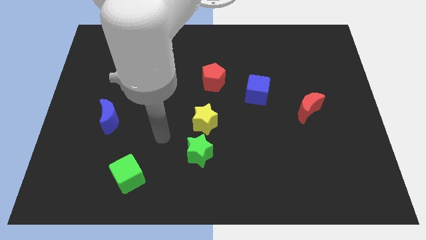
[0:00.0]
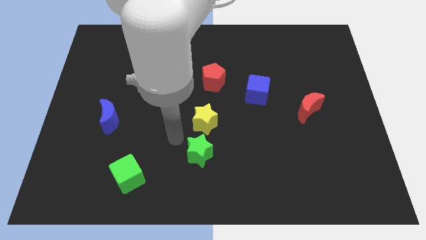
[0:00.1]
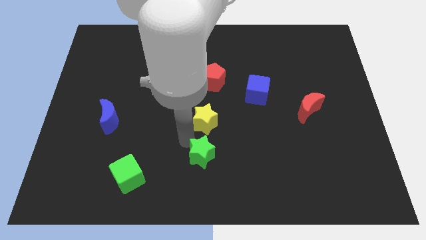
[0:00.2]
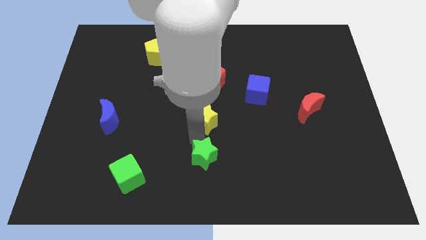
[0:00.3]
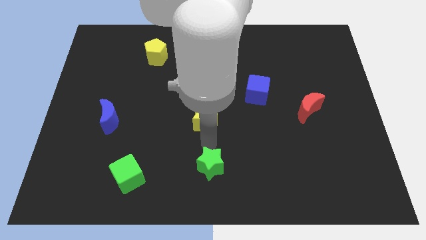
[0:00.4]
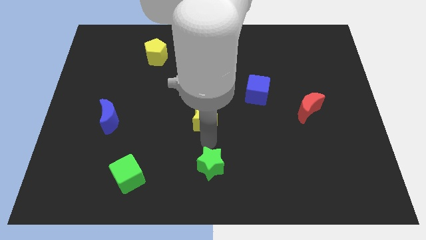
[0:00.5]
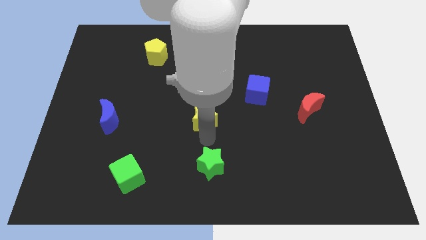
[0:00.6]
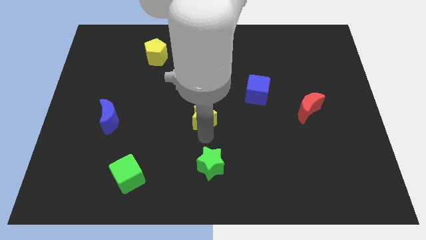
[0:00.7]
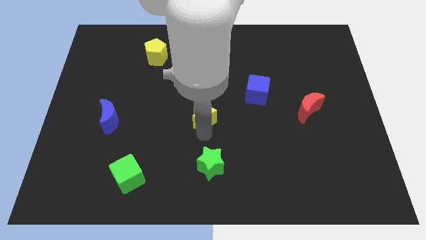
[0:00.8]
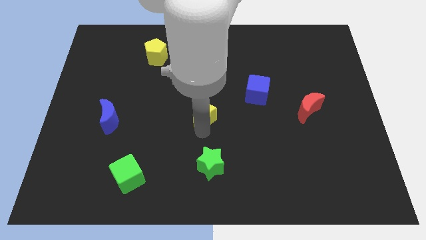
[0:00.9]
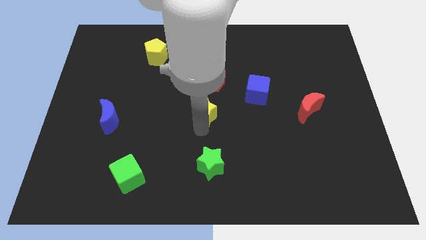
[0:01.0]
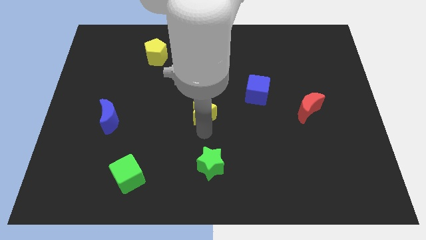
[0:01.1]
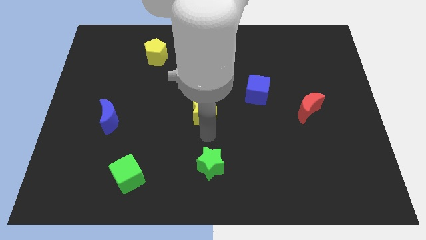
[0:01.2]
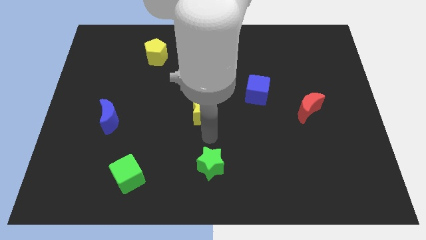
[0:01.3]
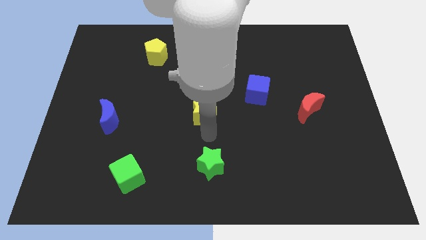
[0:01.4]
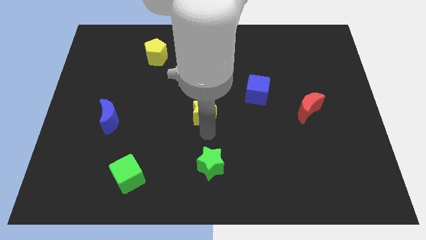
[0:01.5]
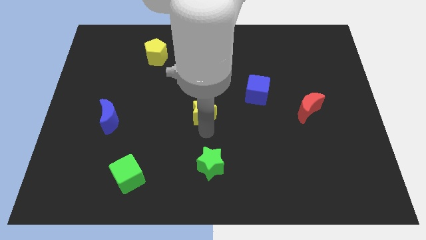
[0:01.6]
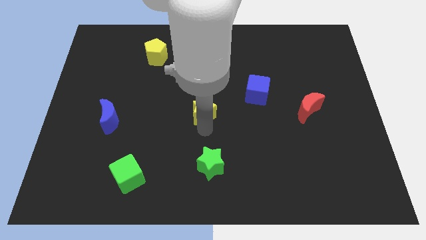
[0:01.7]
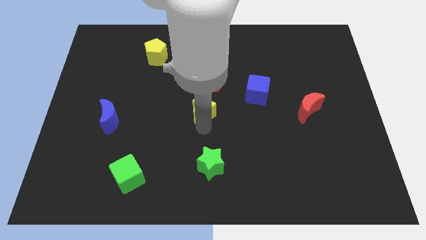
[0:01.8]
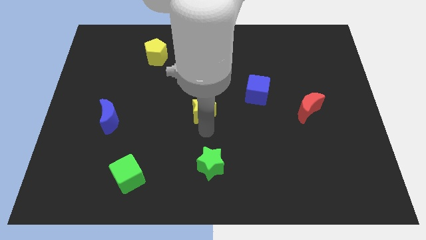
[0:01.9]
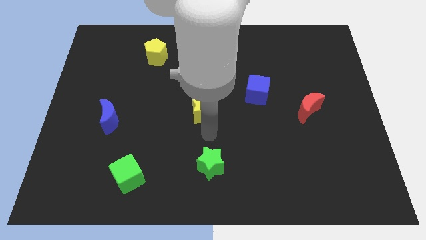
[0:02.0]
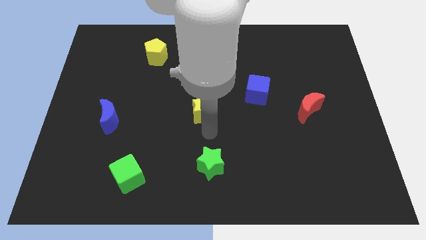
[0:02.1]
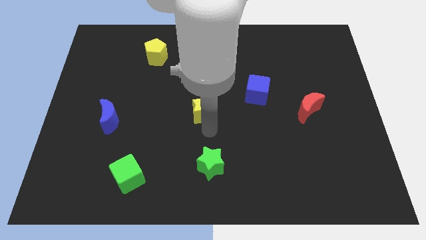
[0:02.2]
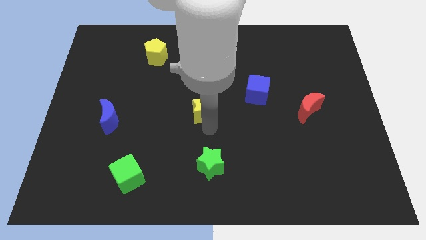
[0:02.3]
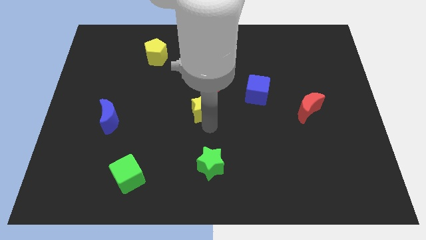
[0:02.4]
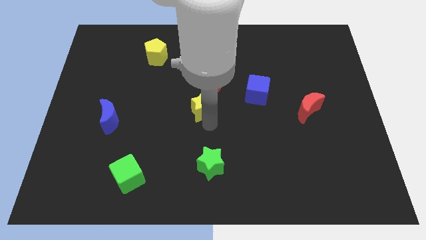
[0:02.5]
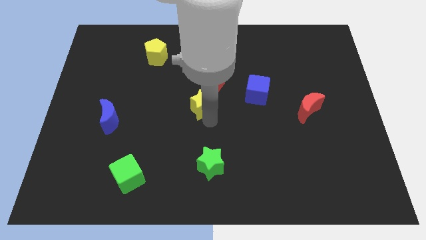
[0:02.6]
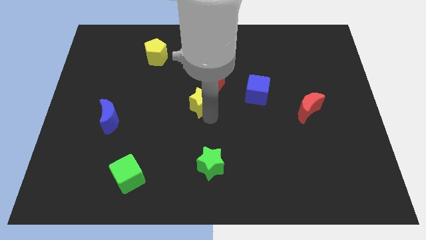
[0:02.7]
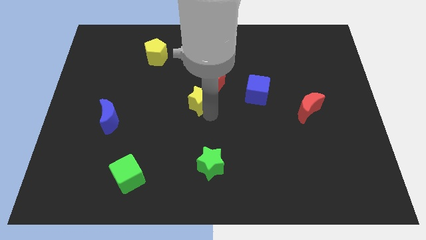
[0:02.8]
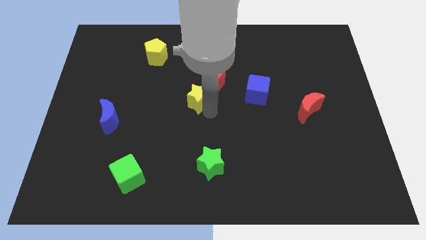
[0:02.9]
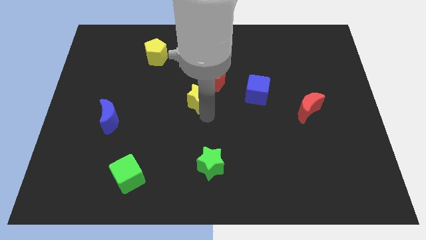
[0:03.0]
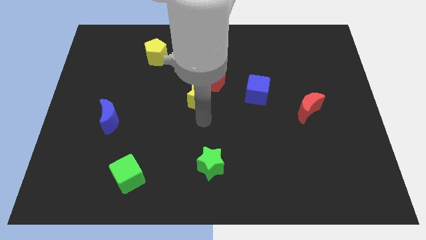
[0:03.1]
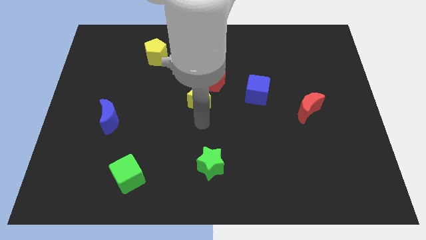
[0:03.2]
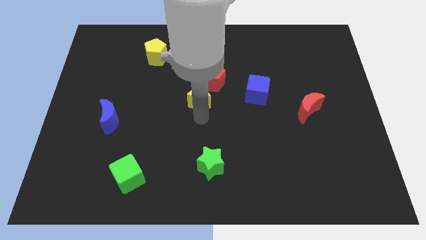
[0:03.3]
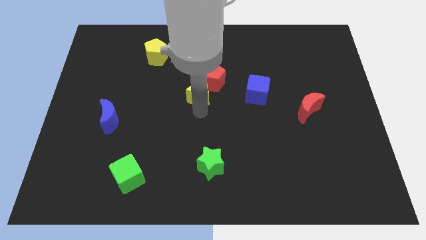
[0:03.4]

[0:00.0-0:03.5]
slightly push the yellow star upwards

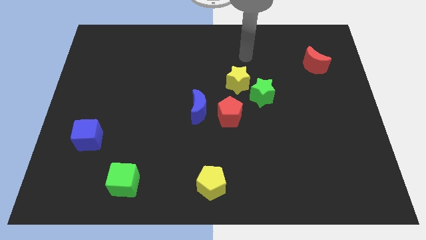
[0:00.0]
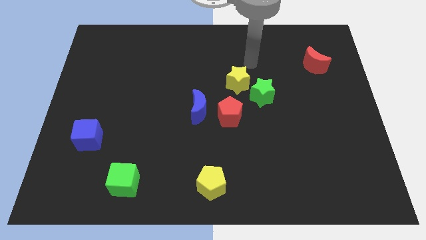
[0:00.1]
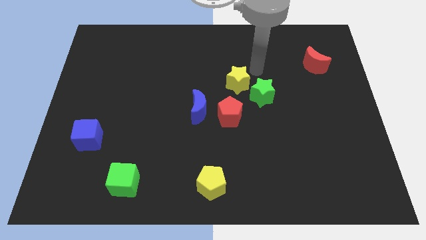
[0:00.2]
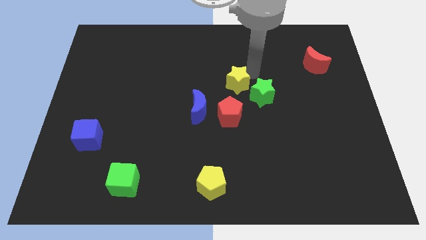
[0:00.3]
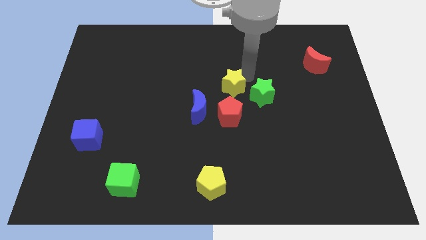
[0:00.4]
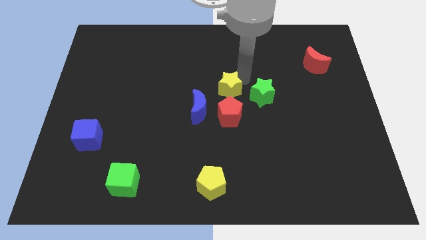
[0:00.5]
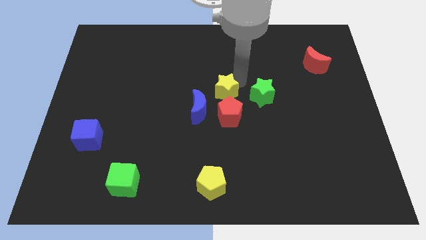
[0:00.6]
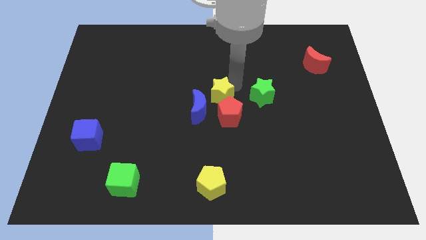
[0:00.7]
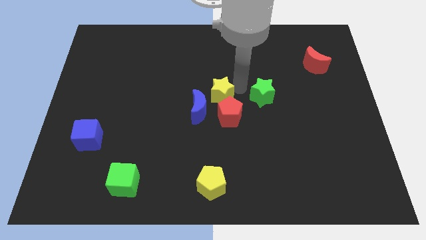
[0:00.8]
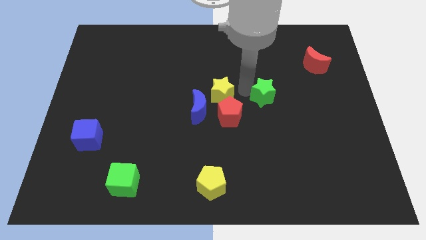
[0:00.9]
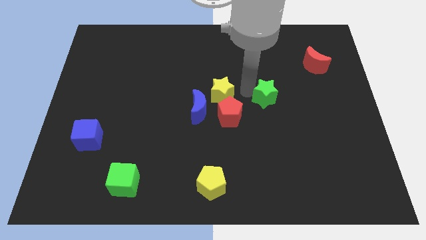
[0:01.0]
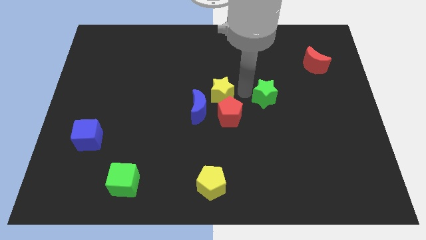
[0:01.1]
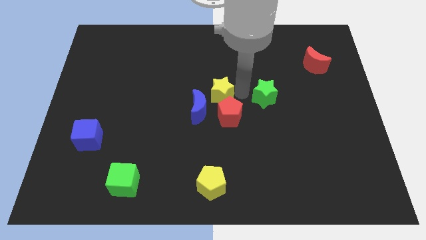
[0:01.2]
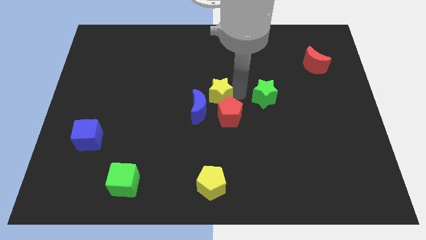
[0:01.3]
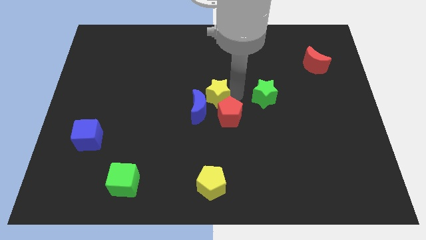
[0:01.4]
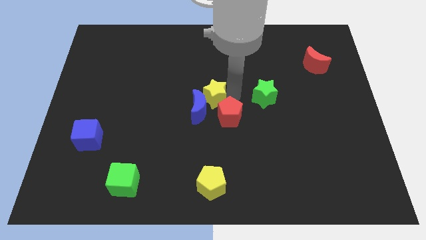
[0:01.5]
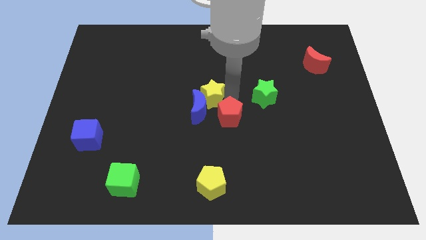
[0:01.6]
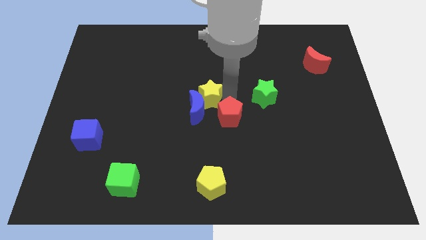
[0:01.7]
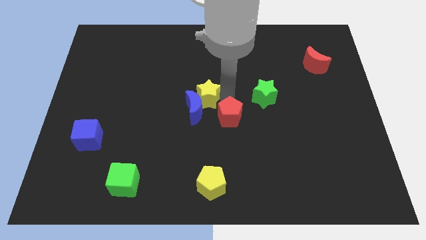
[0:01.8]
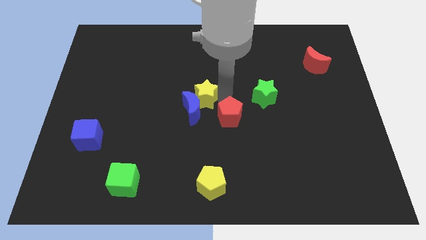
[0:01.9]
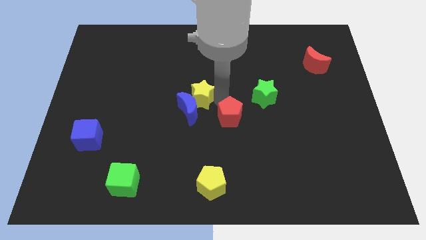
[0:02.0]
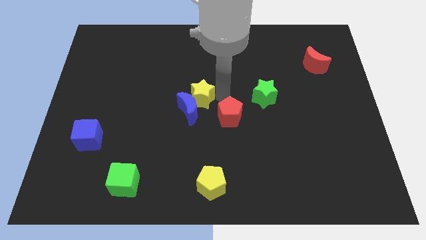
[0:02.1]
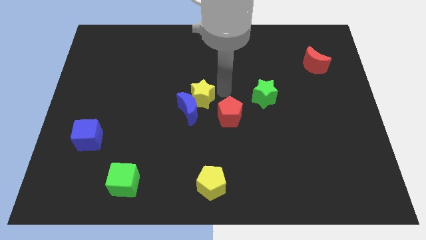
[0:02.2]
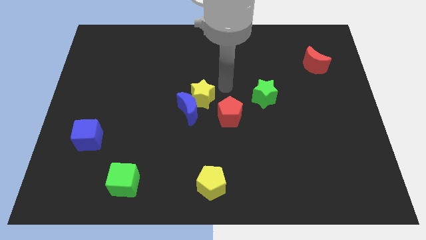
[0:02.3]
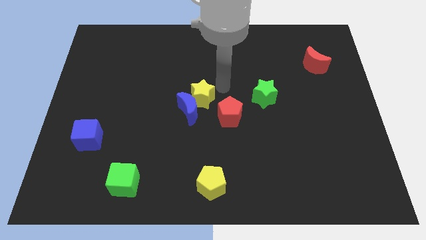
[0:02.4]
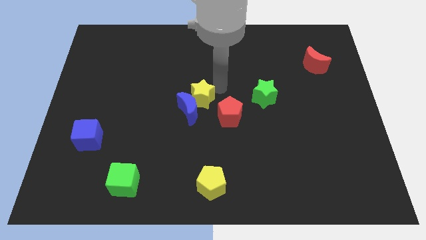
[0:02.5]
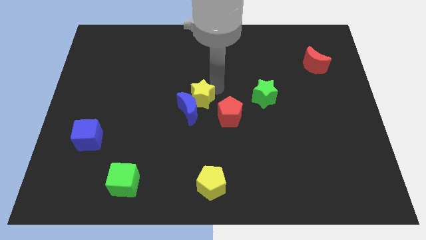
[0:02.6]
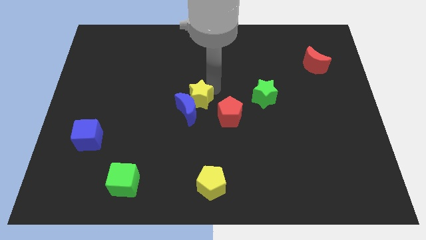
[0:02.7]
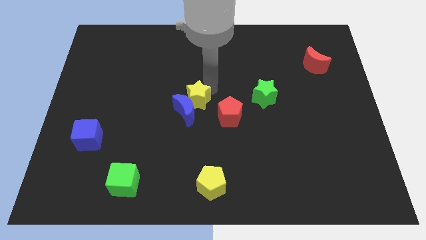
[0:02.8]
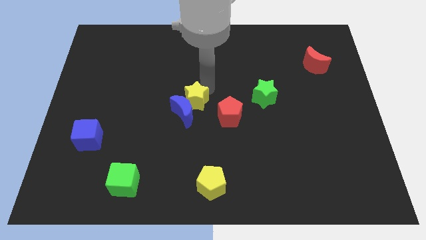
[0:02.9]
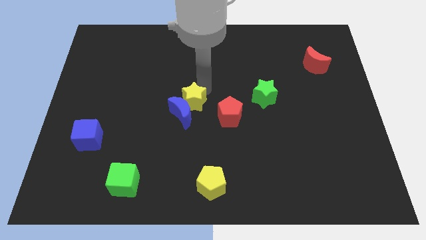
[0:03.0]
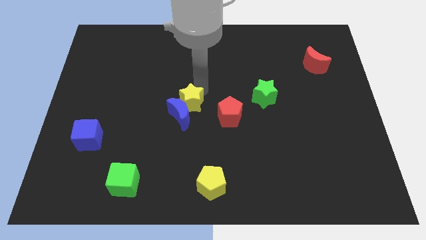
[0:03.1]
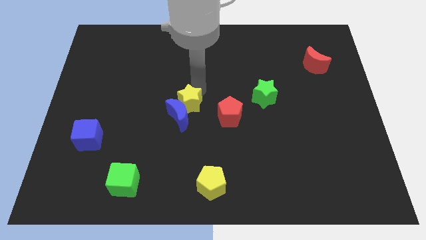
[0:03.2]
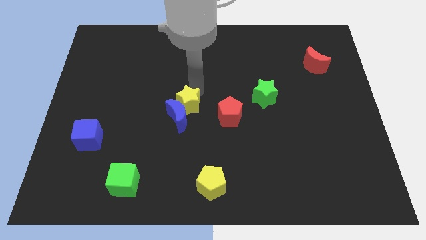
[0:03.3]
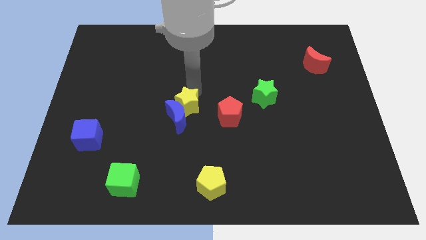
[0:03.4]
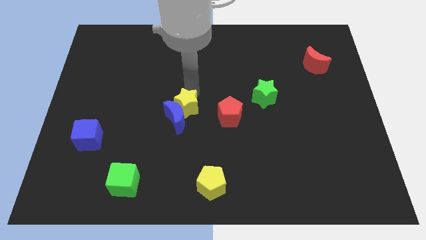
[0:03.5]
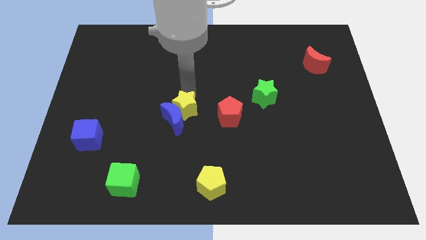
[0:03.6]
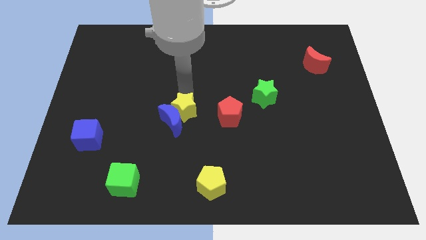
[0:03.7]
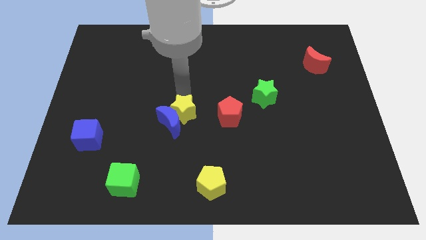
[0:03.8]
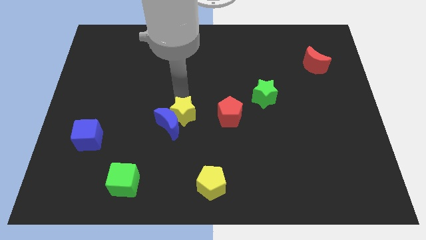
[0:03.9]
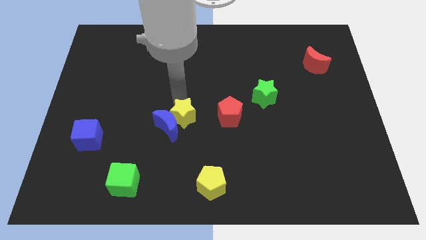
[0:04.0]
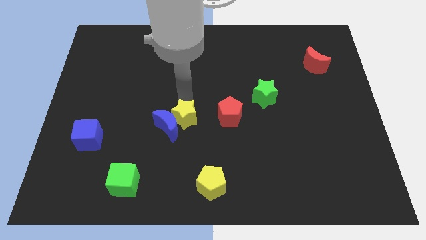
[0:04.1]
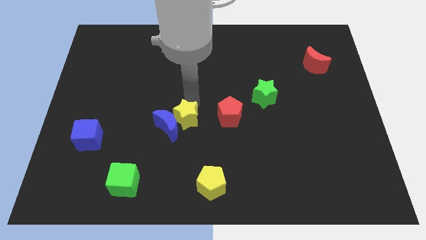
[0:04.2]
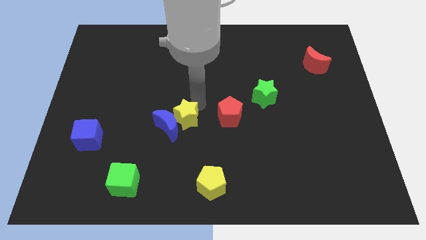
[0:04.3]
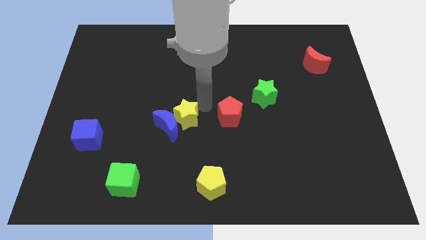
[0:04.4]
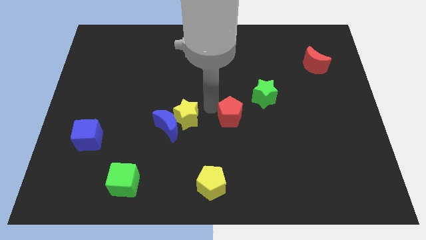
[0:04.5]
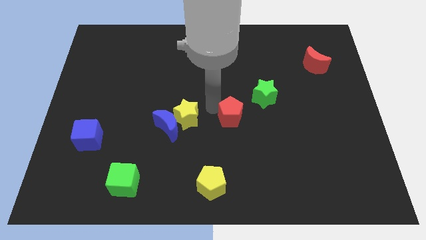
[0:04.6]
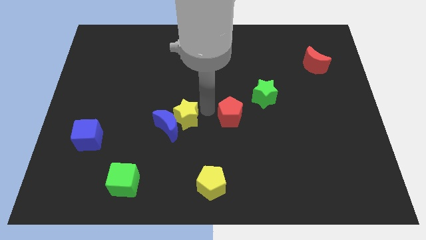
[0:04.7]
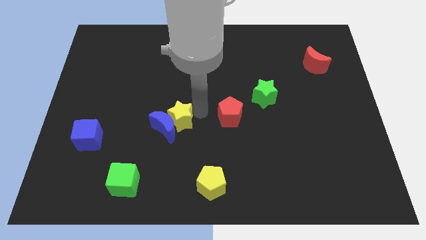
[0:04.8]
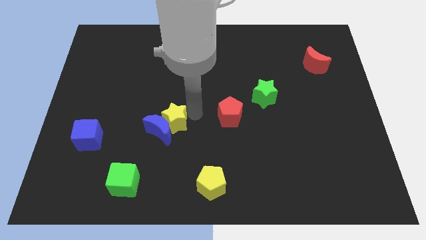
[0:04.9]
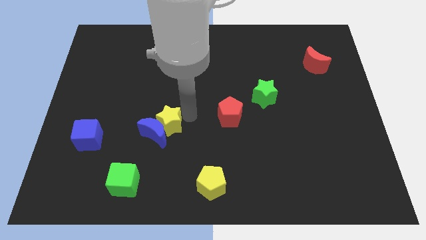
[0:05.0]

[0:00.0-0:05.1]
move the yellow star down and left diagonally
